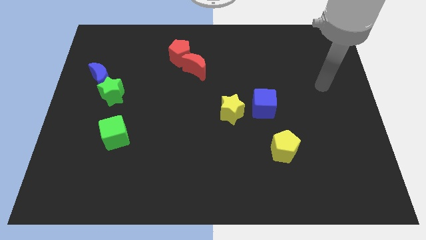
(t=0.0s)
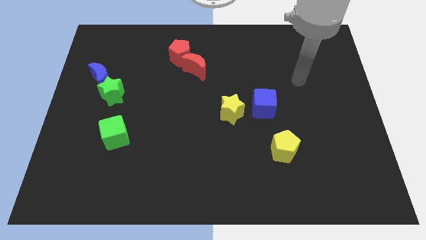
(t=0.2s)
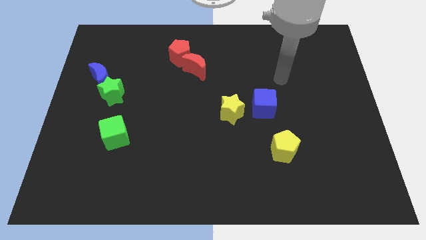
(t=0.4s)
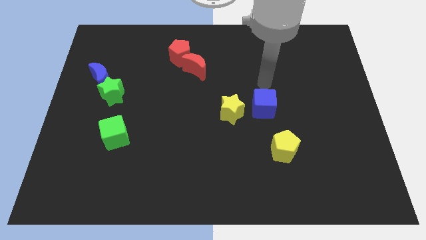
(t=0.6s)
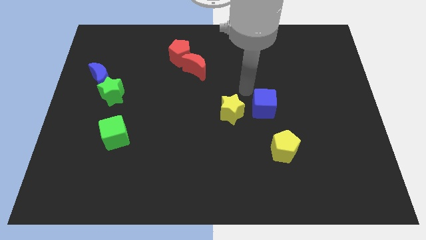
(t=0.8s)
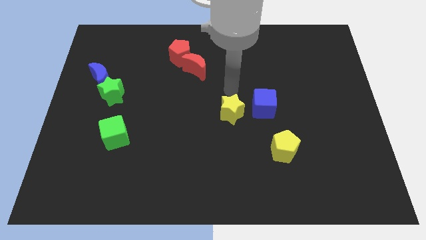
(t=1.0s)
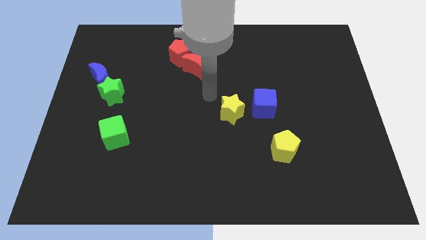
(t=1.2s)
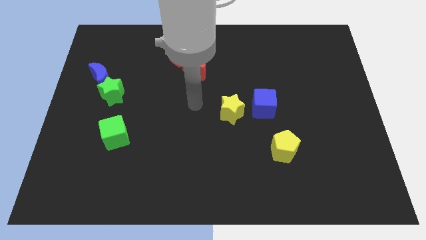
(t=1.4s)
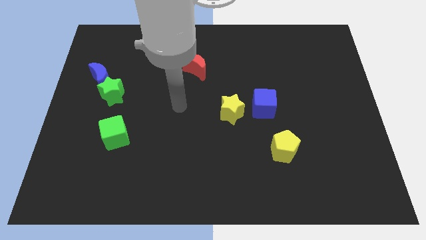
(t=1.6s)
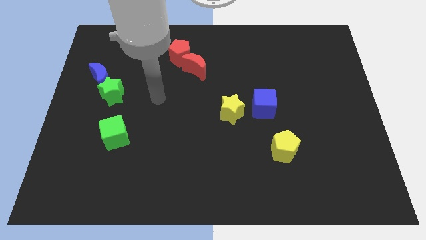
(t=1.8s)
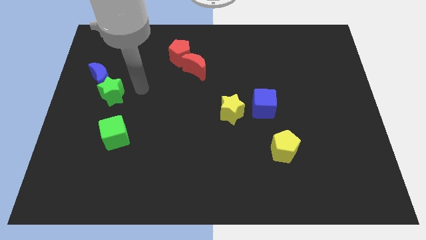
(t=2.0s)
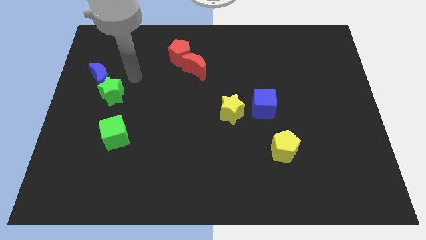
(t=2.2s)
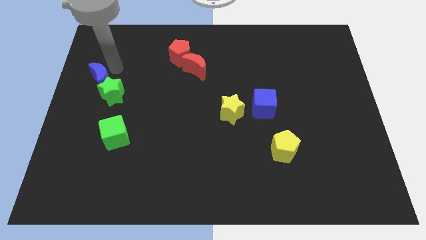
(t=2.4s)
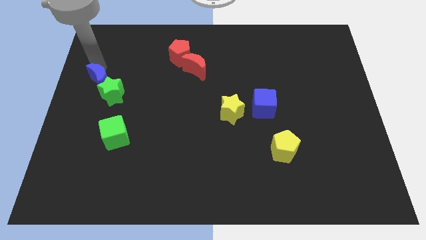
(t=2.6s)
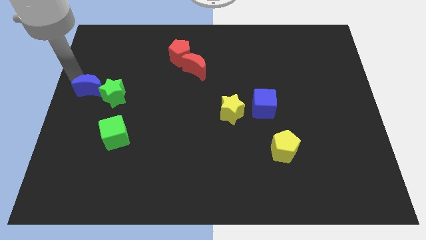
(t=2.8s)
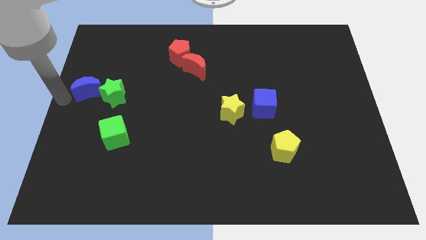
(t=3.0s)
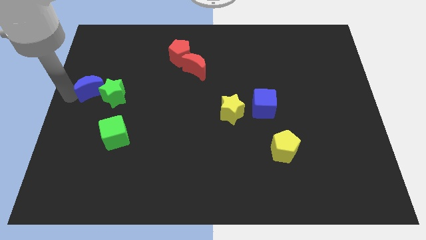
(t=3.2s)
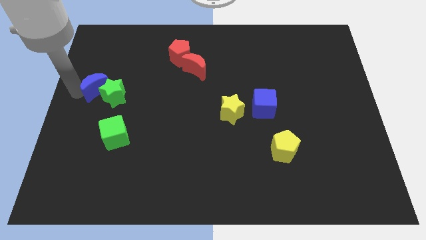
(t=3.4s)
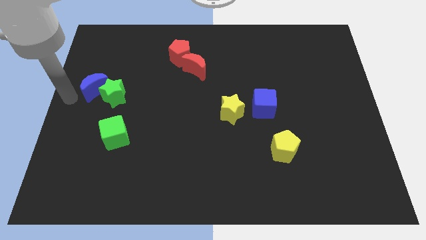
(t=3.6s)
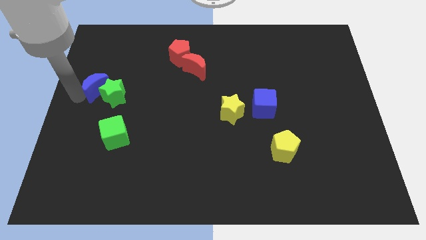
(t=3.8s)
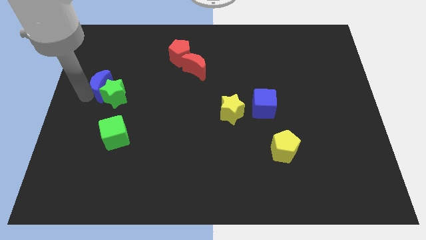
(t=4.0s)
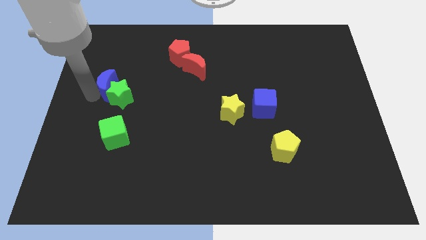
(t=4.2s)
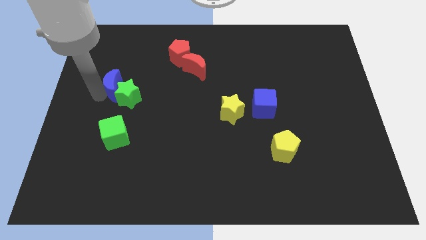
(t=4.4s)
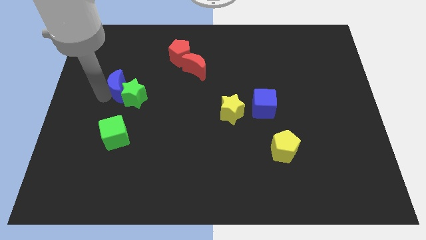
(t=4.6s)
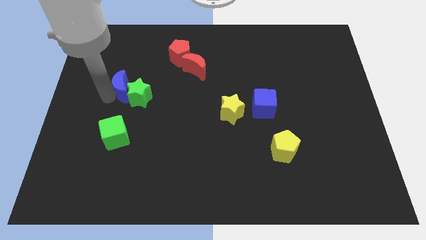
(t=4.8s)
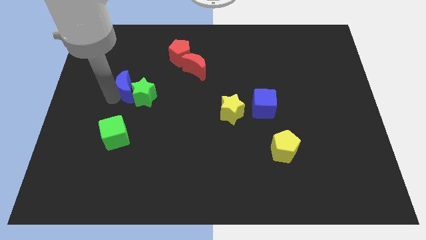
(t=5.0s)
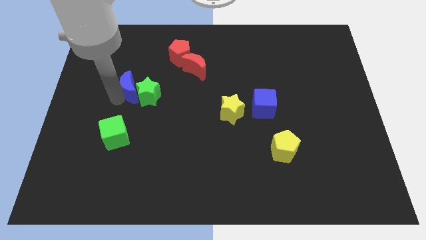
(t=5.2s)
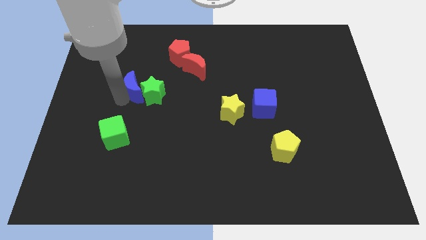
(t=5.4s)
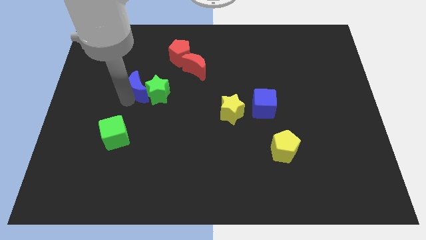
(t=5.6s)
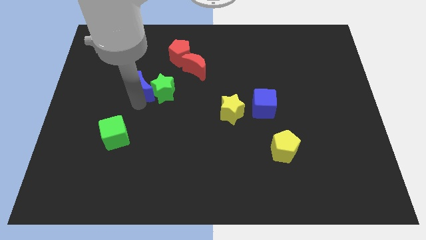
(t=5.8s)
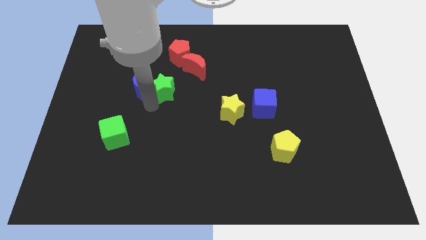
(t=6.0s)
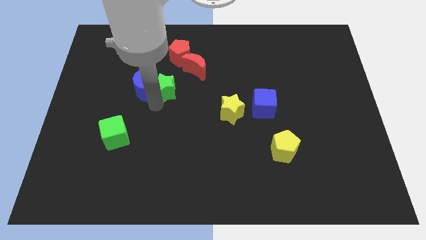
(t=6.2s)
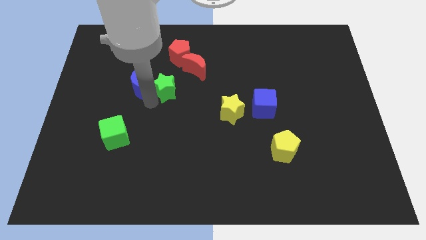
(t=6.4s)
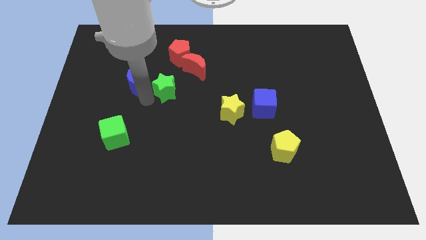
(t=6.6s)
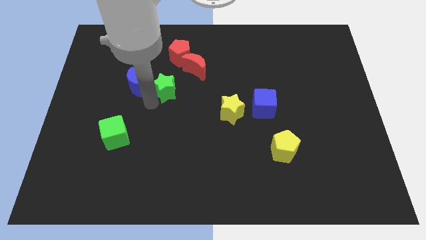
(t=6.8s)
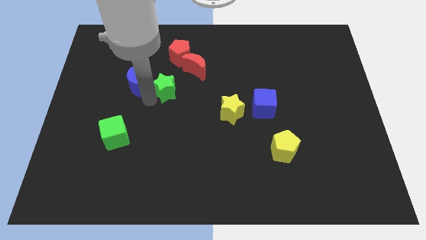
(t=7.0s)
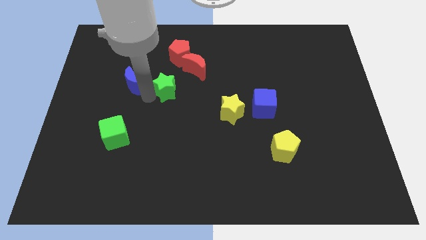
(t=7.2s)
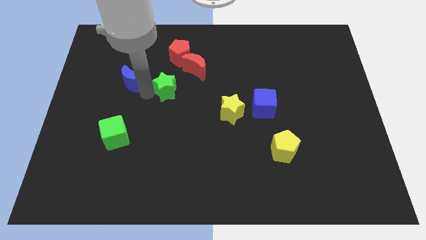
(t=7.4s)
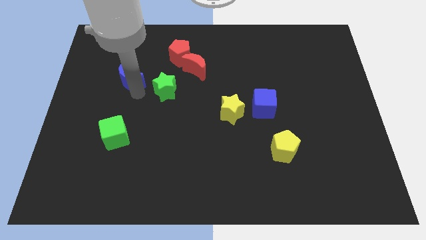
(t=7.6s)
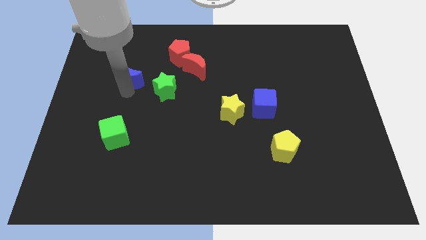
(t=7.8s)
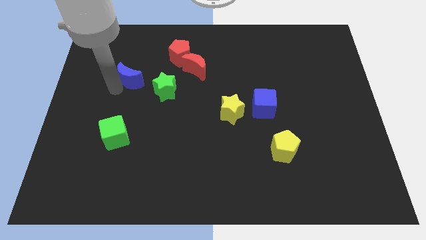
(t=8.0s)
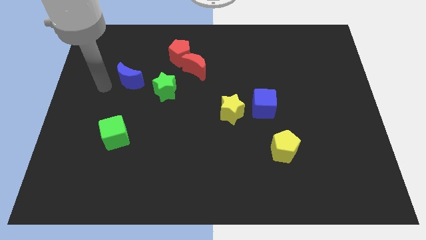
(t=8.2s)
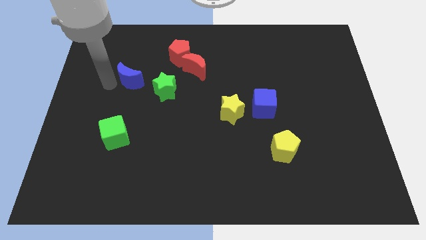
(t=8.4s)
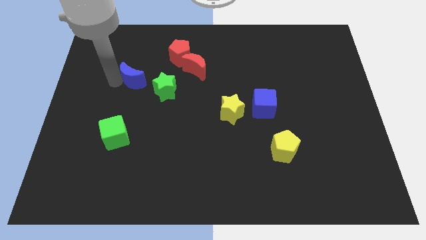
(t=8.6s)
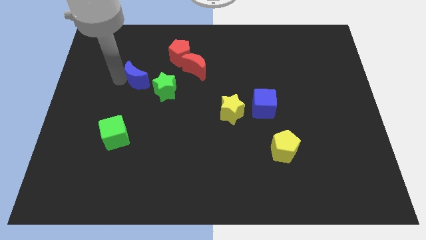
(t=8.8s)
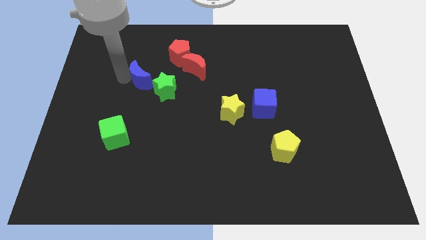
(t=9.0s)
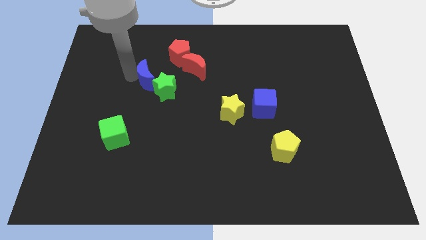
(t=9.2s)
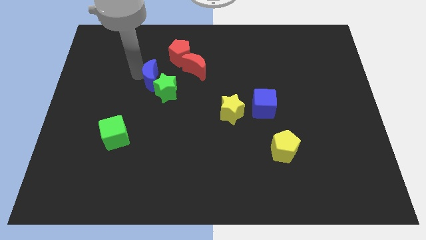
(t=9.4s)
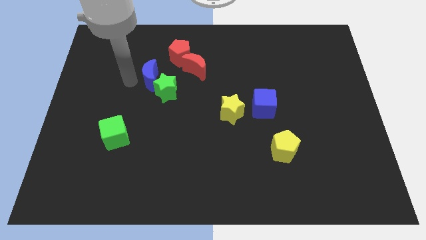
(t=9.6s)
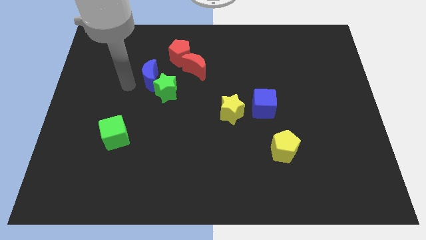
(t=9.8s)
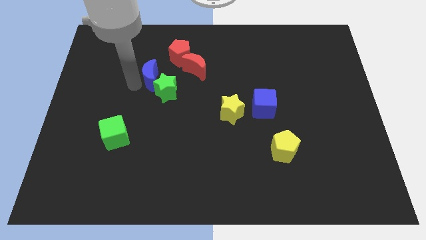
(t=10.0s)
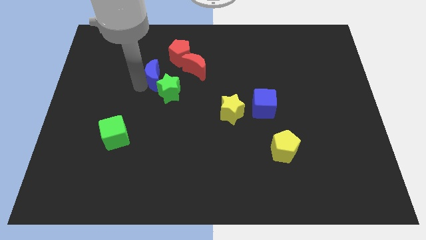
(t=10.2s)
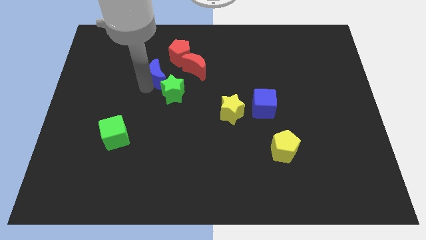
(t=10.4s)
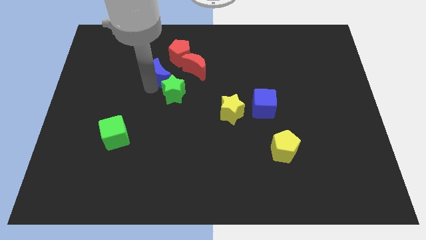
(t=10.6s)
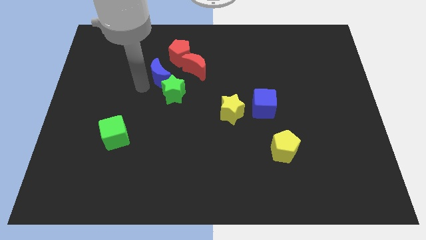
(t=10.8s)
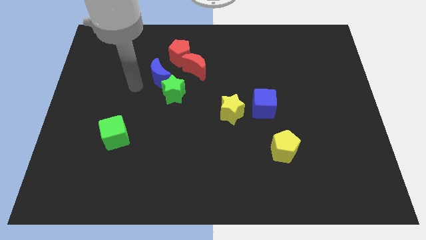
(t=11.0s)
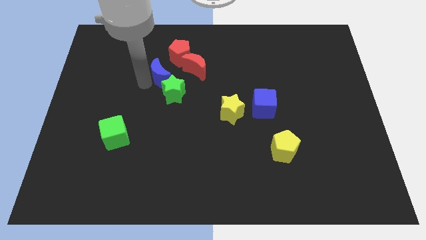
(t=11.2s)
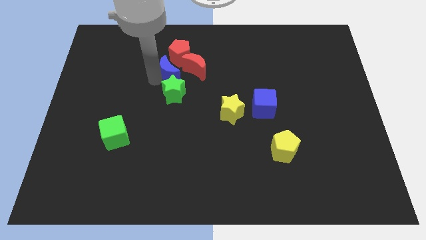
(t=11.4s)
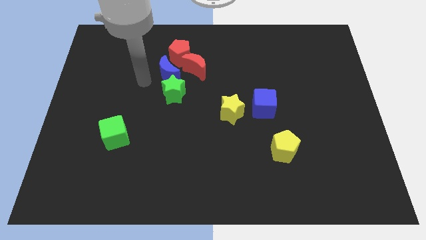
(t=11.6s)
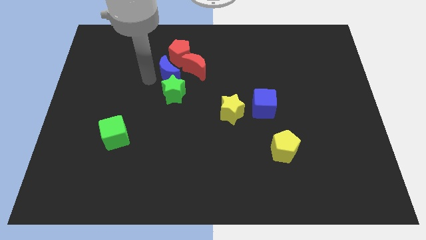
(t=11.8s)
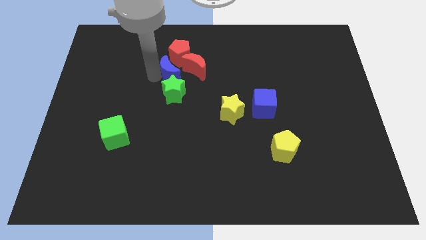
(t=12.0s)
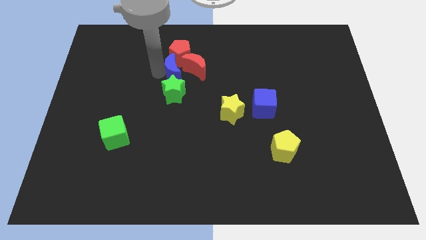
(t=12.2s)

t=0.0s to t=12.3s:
slide the blue moon to the red moon

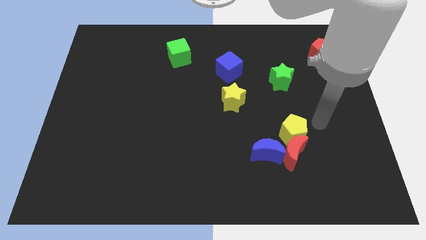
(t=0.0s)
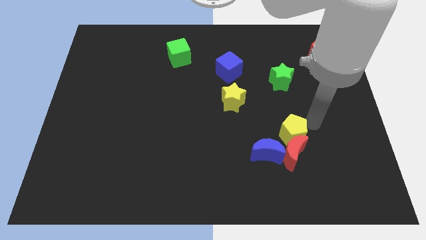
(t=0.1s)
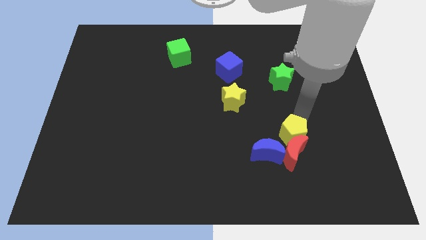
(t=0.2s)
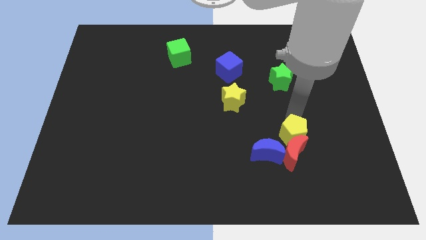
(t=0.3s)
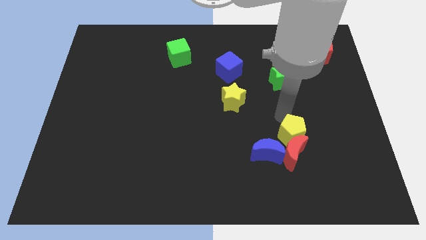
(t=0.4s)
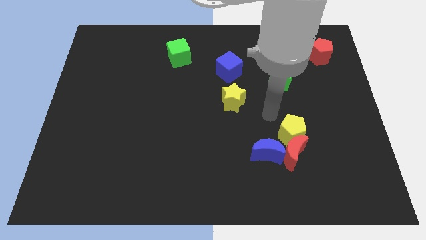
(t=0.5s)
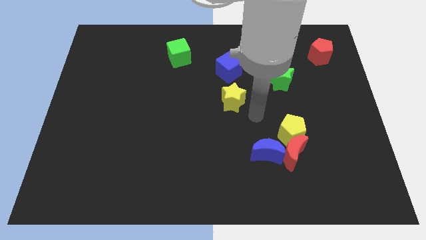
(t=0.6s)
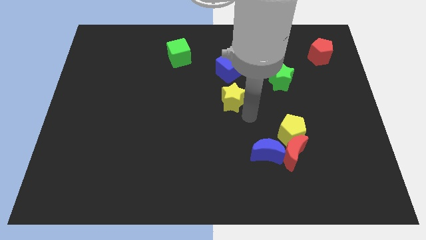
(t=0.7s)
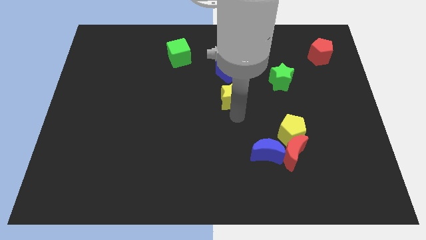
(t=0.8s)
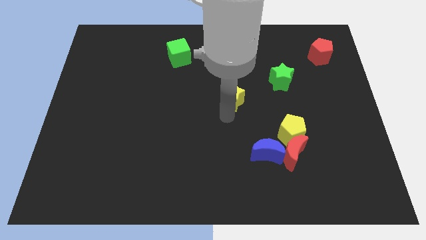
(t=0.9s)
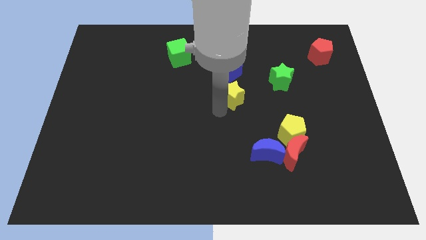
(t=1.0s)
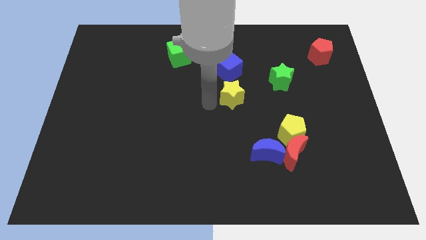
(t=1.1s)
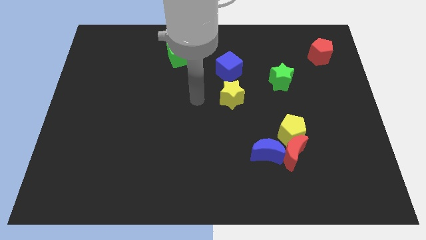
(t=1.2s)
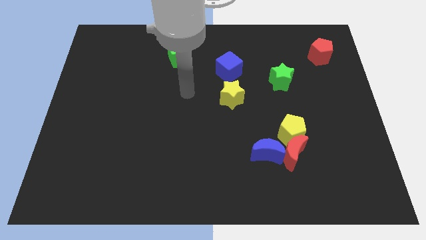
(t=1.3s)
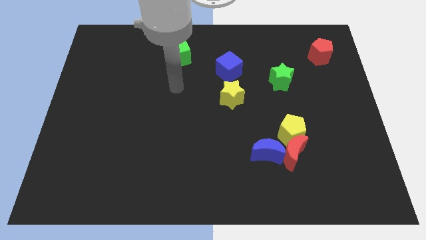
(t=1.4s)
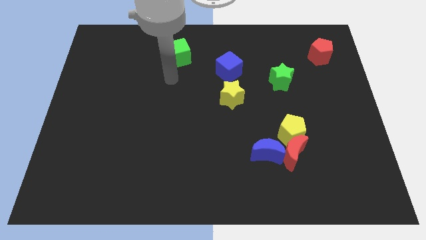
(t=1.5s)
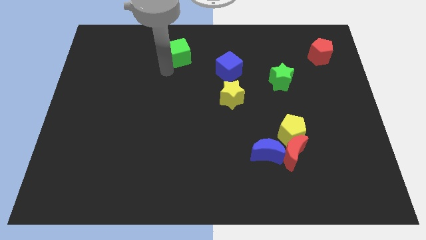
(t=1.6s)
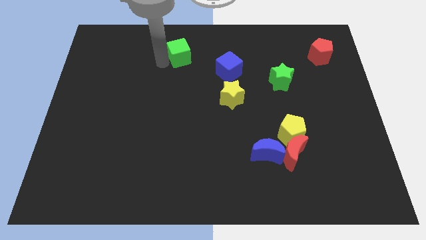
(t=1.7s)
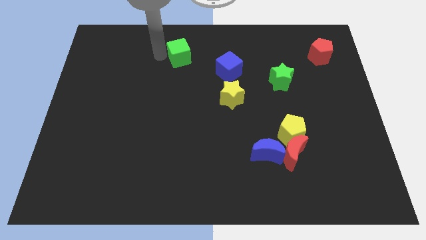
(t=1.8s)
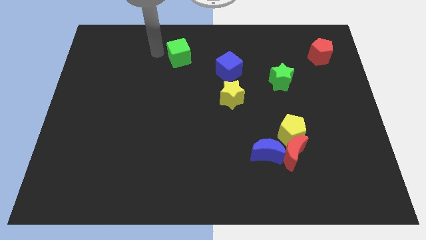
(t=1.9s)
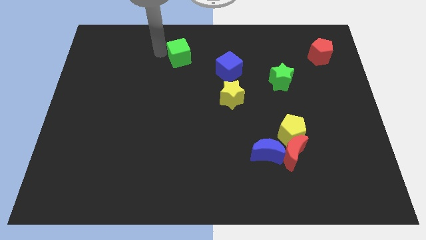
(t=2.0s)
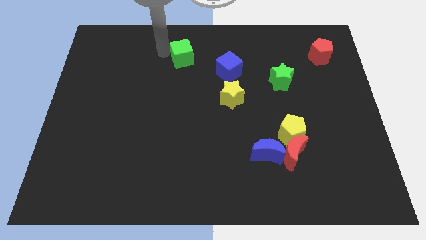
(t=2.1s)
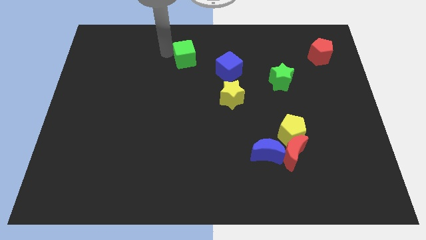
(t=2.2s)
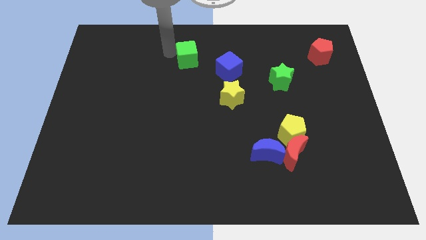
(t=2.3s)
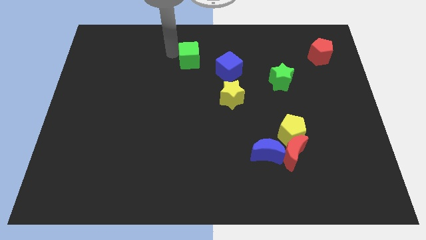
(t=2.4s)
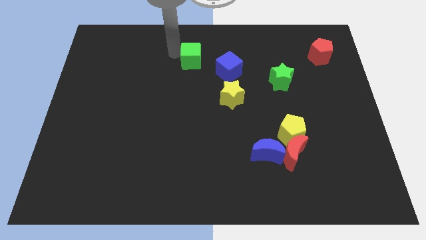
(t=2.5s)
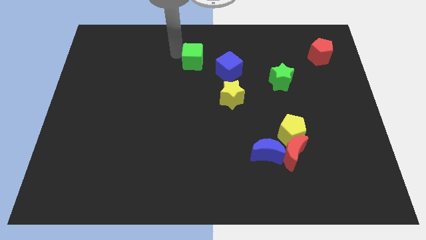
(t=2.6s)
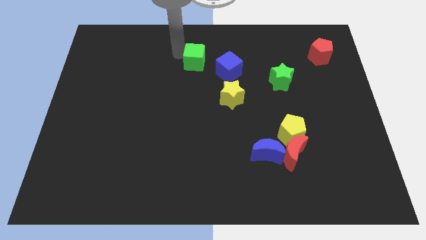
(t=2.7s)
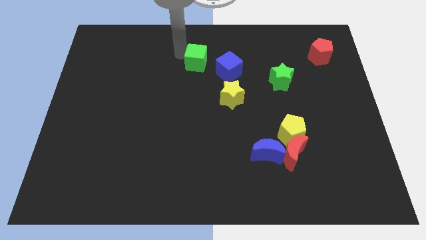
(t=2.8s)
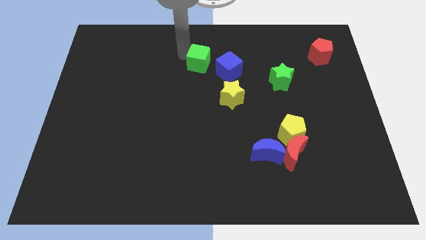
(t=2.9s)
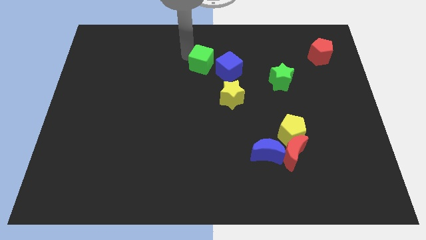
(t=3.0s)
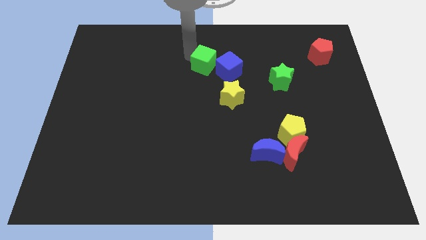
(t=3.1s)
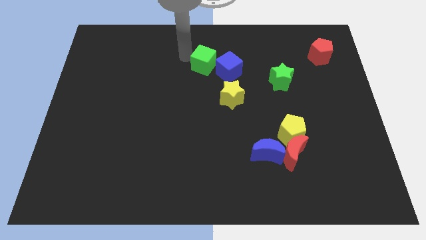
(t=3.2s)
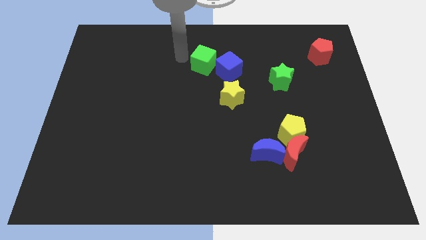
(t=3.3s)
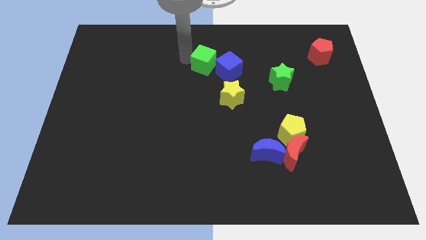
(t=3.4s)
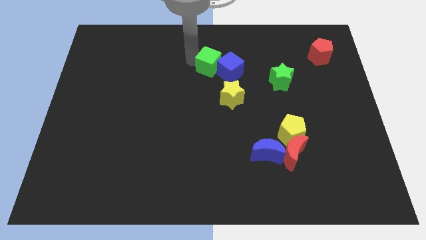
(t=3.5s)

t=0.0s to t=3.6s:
slide the green cube to the blue cube
